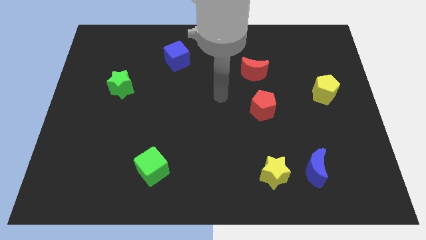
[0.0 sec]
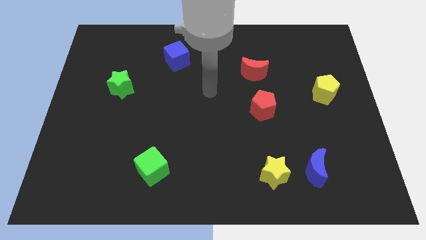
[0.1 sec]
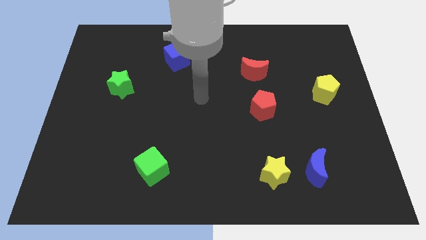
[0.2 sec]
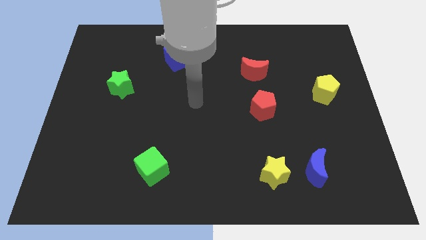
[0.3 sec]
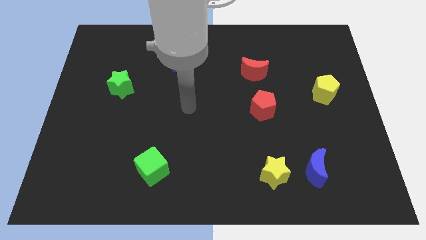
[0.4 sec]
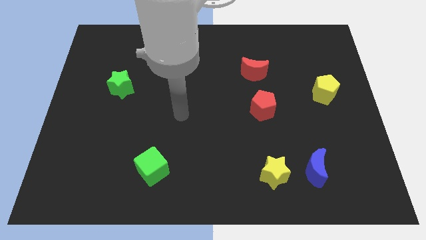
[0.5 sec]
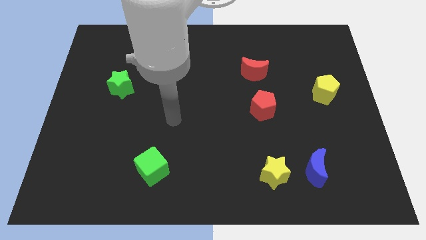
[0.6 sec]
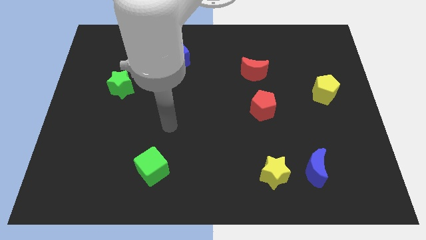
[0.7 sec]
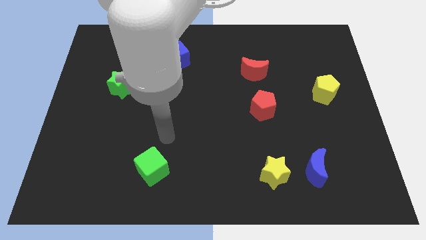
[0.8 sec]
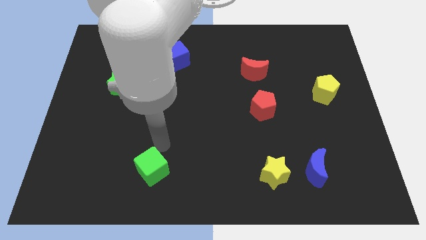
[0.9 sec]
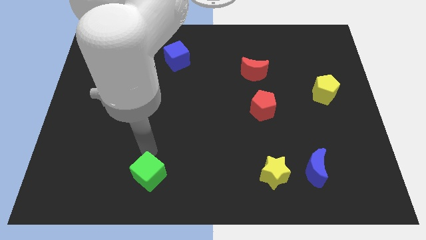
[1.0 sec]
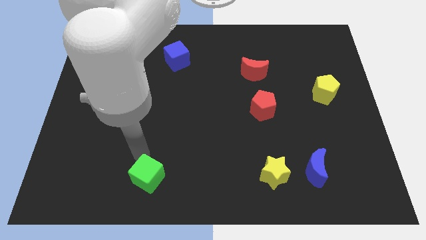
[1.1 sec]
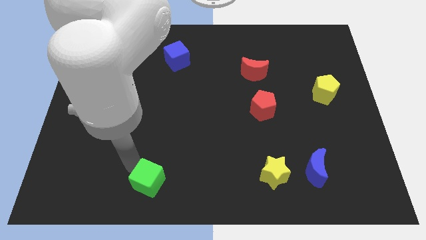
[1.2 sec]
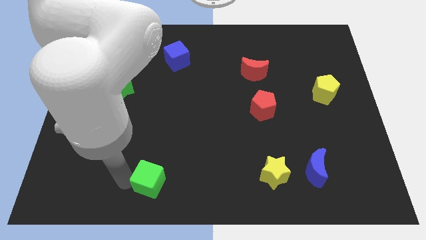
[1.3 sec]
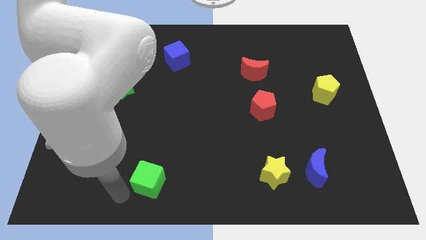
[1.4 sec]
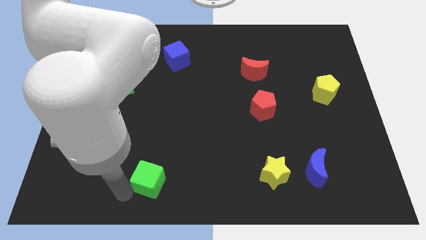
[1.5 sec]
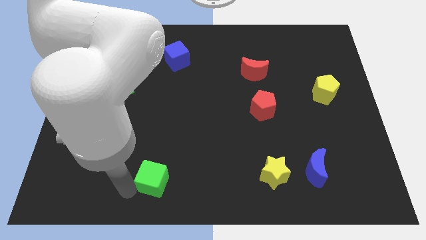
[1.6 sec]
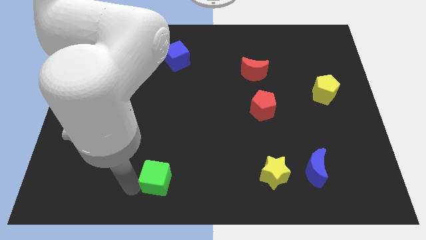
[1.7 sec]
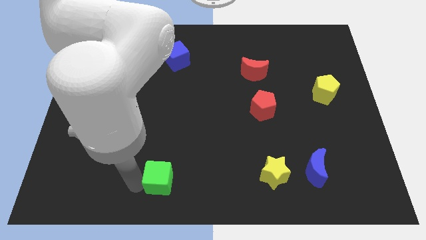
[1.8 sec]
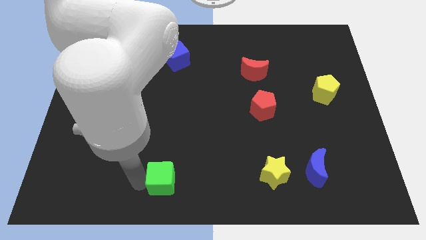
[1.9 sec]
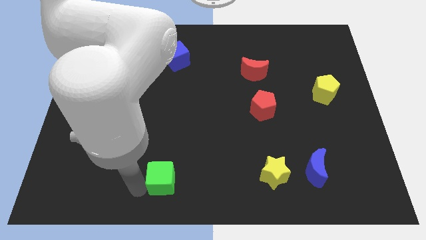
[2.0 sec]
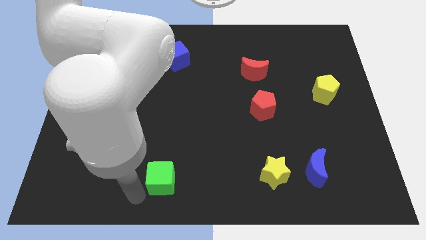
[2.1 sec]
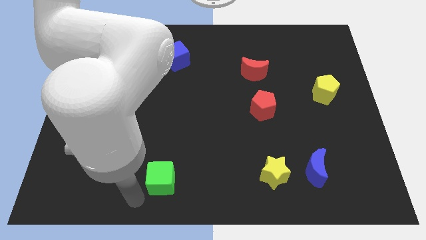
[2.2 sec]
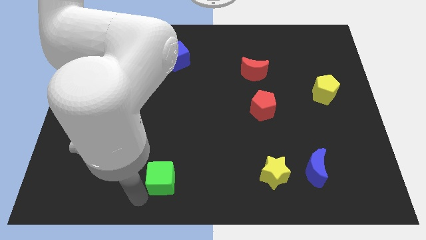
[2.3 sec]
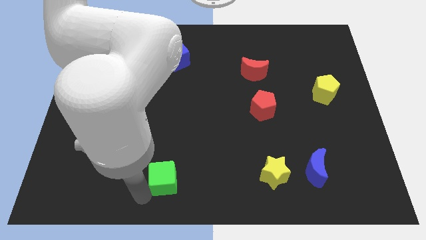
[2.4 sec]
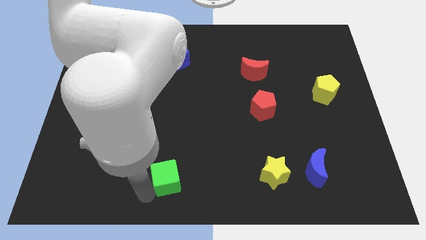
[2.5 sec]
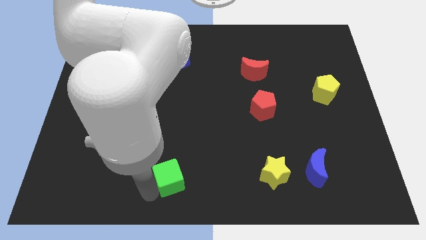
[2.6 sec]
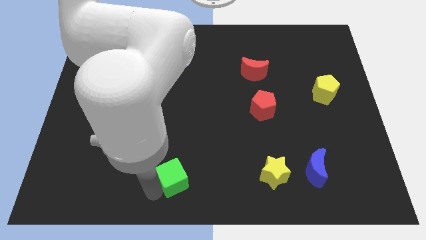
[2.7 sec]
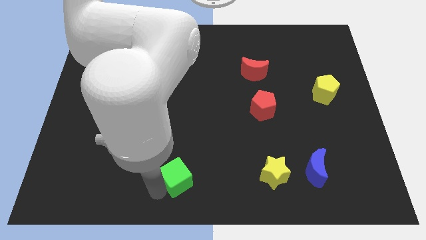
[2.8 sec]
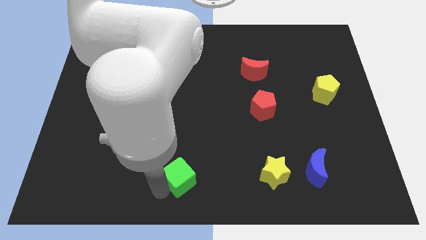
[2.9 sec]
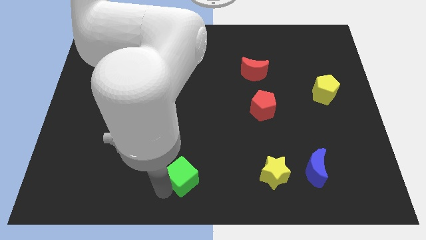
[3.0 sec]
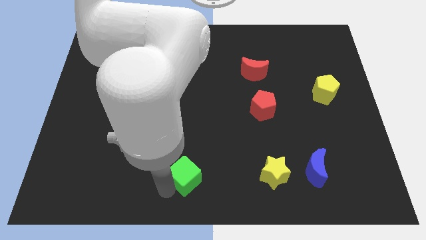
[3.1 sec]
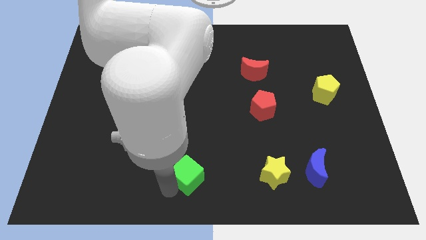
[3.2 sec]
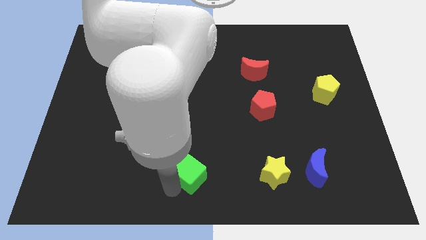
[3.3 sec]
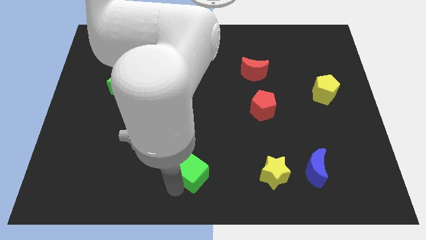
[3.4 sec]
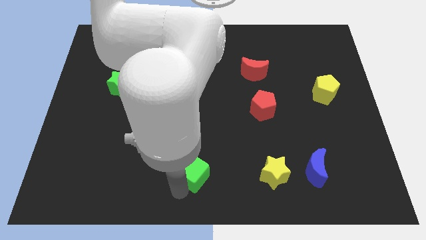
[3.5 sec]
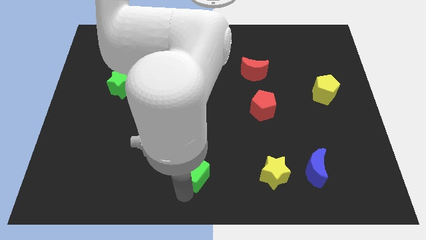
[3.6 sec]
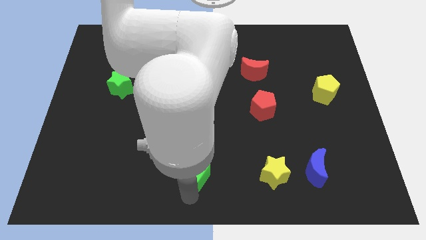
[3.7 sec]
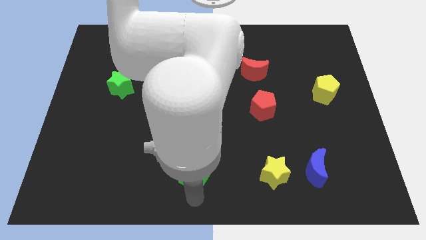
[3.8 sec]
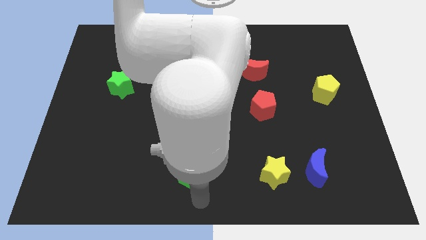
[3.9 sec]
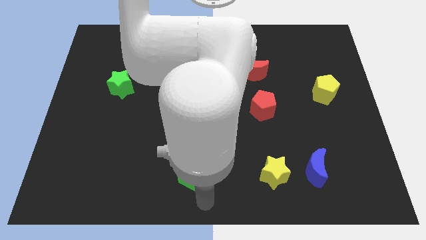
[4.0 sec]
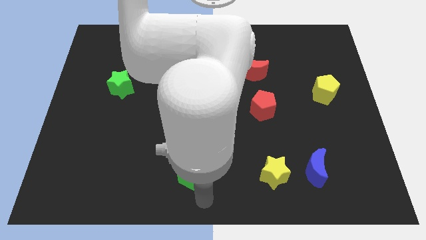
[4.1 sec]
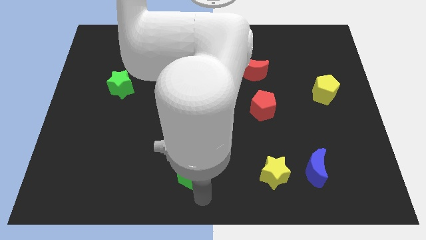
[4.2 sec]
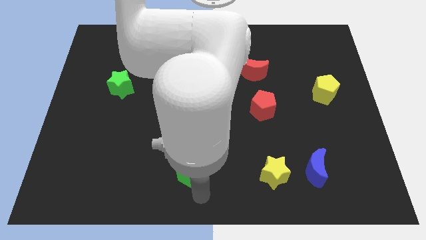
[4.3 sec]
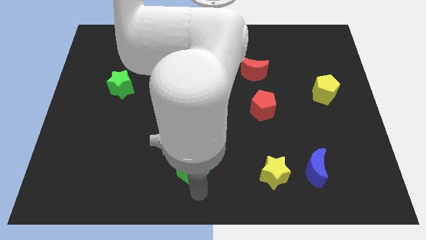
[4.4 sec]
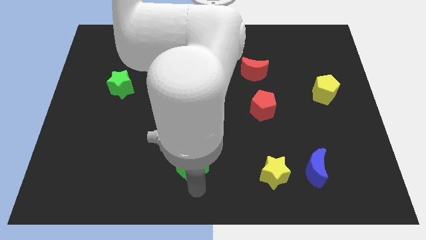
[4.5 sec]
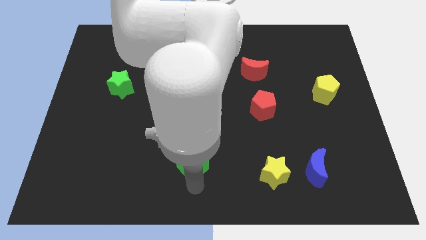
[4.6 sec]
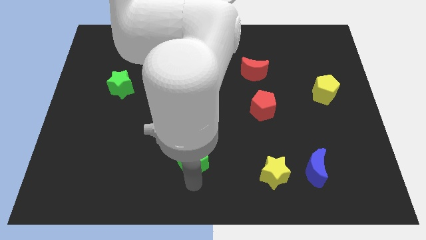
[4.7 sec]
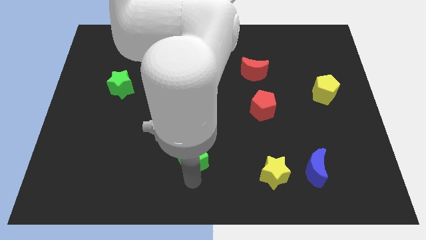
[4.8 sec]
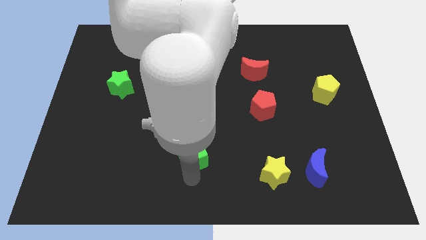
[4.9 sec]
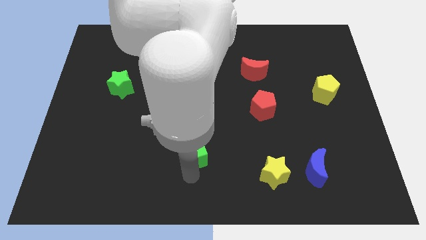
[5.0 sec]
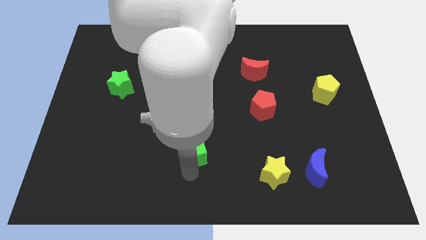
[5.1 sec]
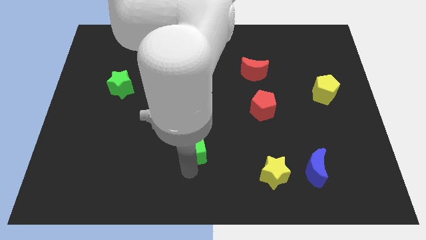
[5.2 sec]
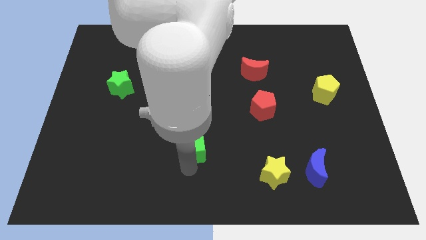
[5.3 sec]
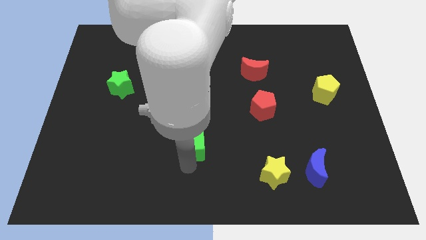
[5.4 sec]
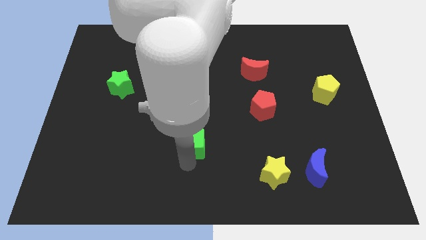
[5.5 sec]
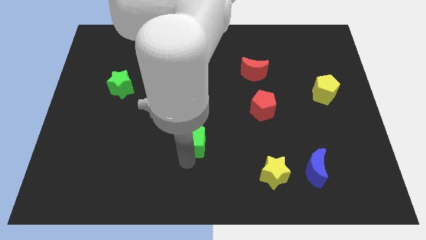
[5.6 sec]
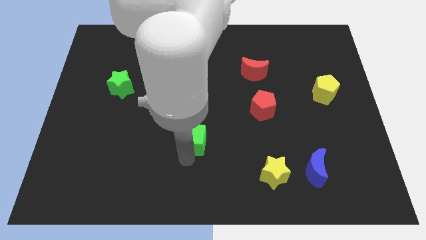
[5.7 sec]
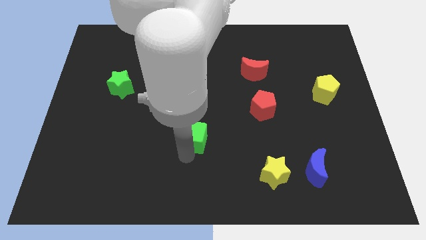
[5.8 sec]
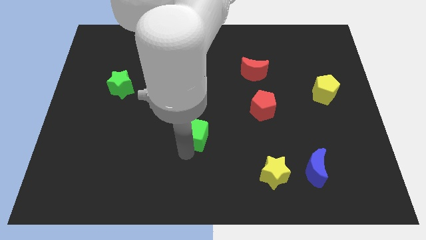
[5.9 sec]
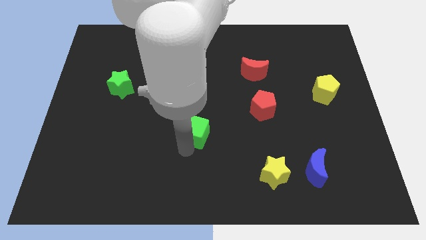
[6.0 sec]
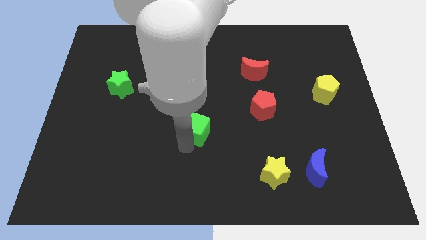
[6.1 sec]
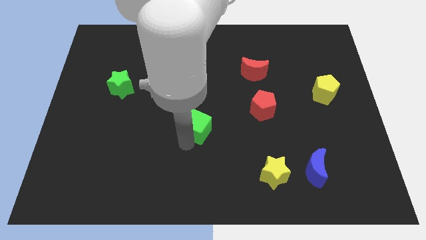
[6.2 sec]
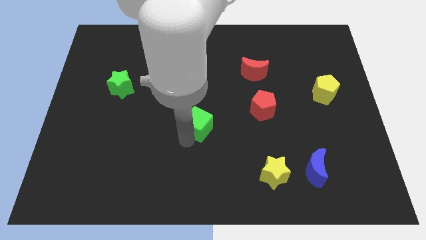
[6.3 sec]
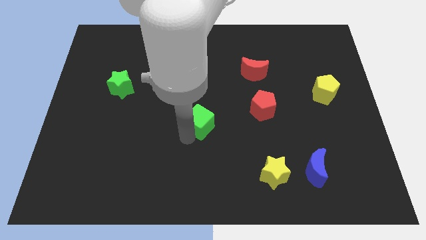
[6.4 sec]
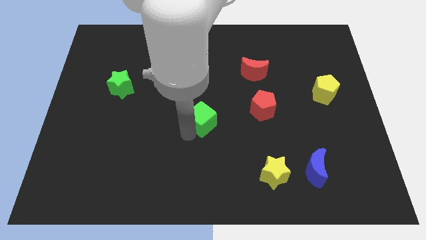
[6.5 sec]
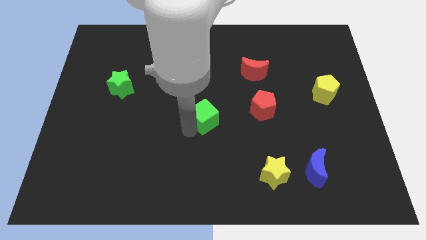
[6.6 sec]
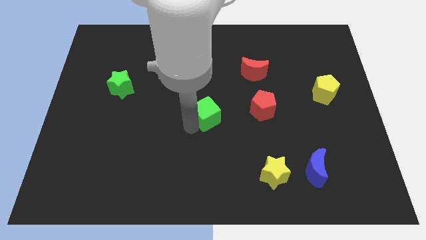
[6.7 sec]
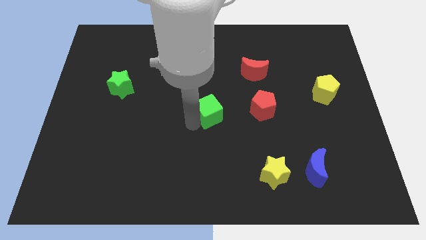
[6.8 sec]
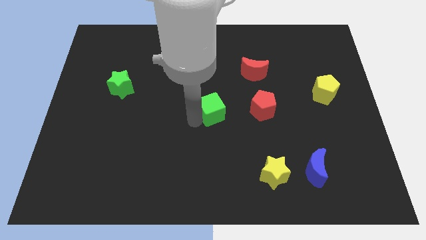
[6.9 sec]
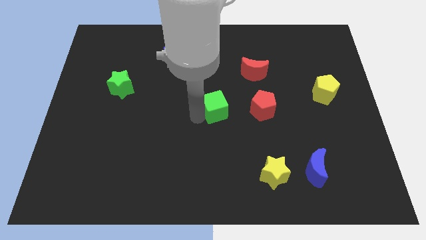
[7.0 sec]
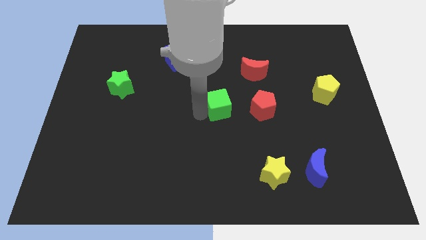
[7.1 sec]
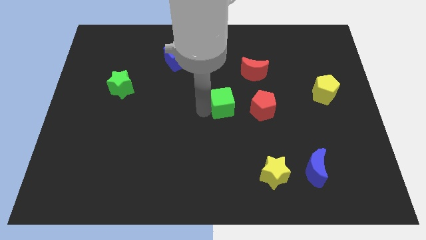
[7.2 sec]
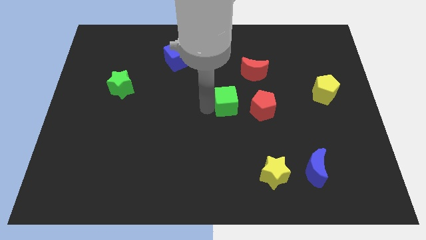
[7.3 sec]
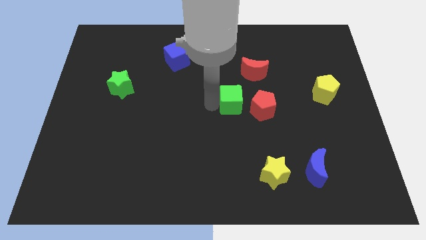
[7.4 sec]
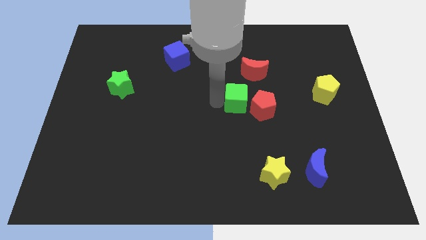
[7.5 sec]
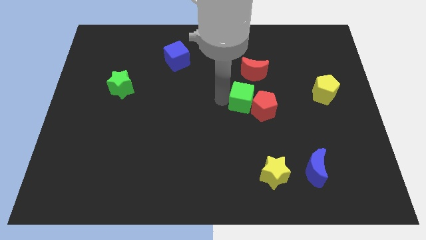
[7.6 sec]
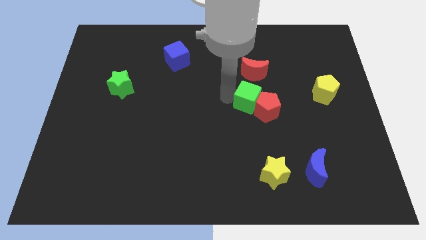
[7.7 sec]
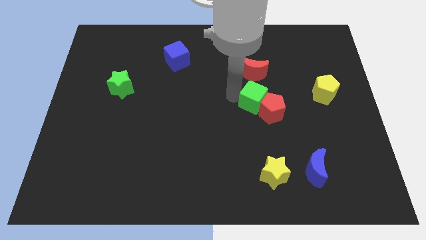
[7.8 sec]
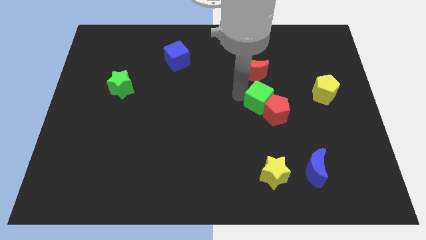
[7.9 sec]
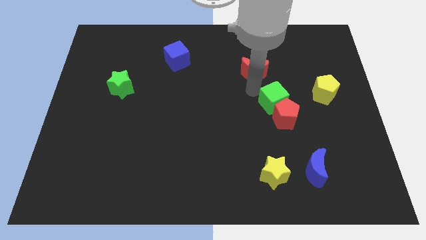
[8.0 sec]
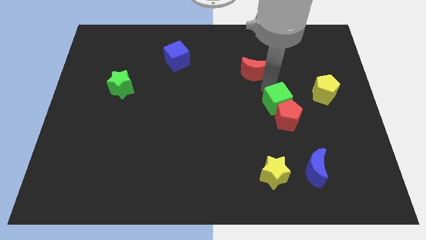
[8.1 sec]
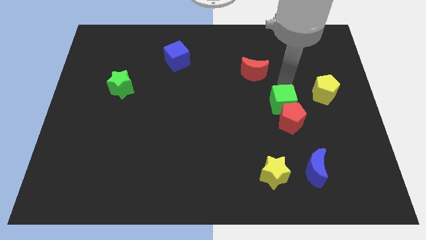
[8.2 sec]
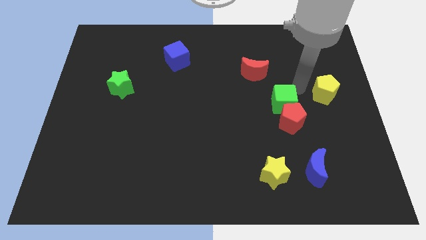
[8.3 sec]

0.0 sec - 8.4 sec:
slide the green cube diagonally down and to the left of the yellow pentagon
